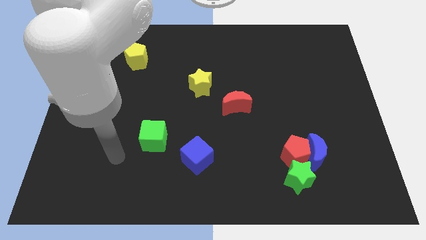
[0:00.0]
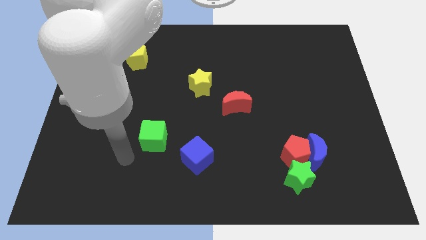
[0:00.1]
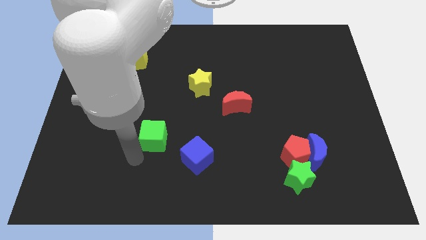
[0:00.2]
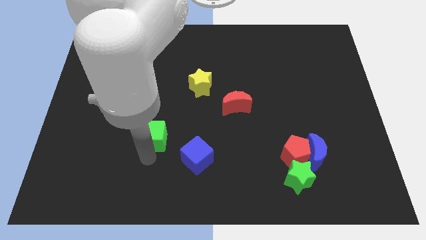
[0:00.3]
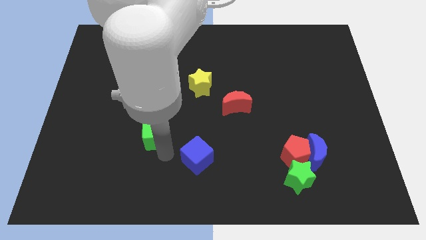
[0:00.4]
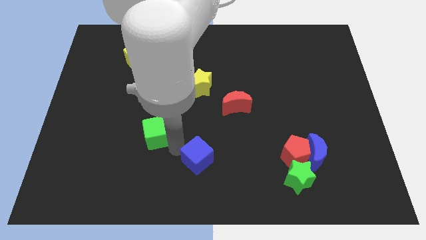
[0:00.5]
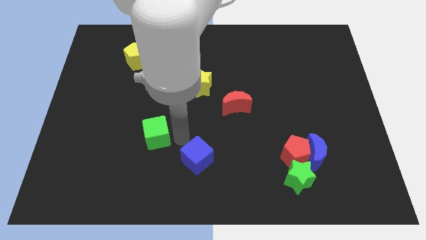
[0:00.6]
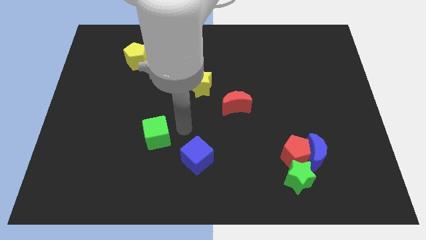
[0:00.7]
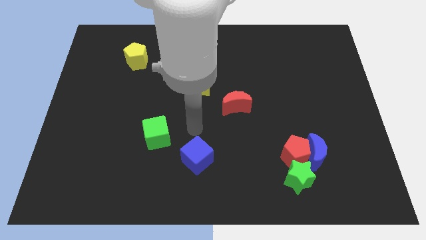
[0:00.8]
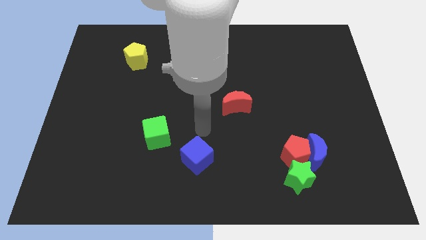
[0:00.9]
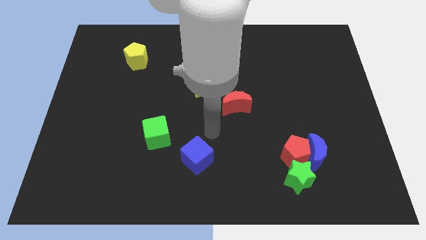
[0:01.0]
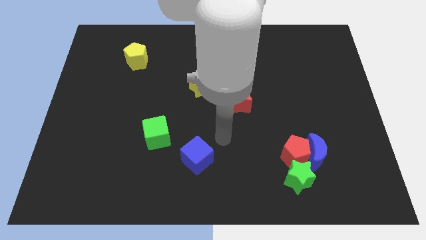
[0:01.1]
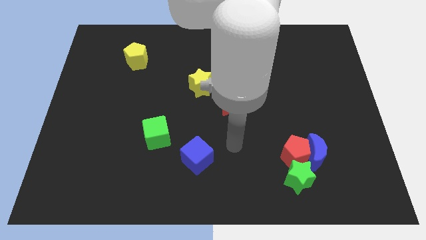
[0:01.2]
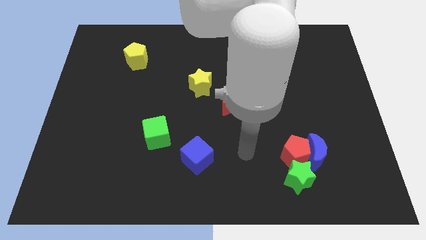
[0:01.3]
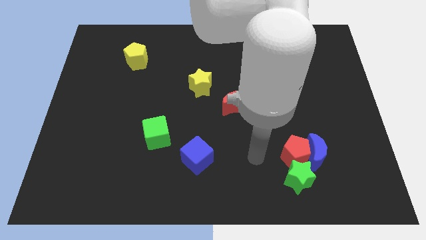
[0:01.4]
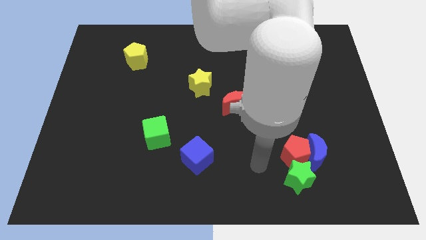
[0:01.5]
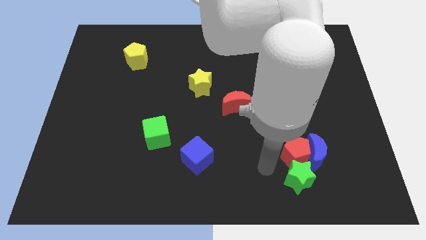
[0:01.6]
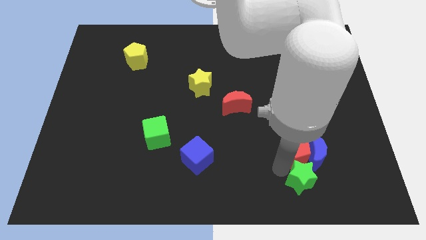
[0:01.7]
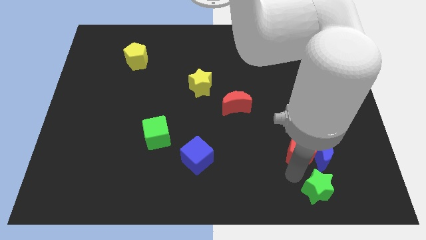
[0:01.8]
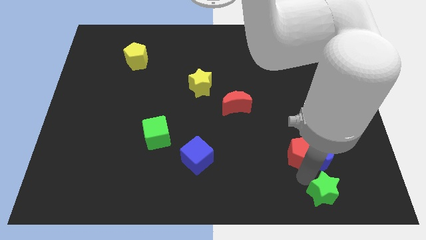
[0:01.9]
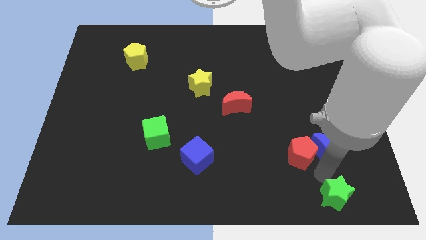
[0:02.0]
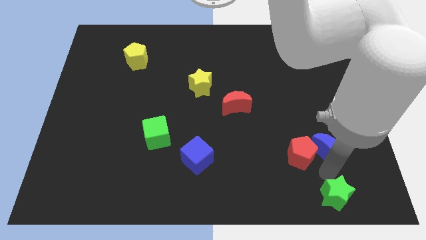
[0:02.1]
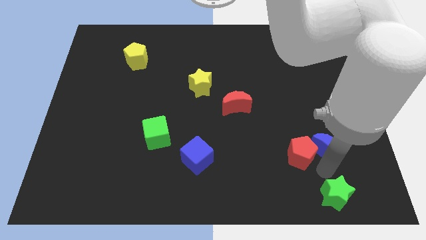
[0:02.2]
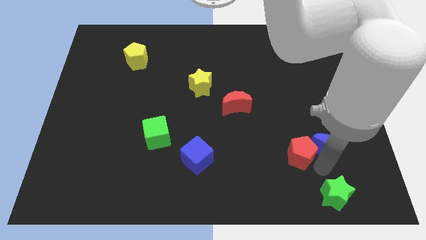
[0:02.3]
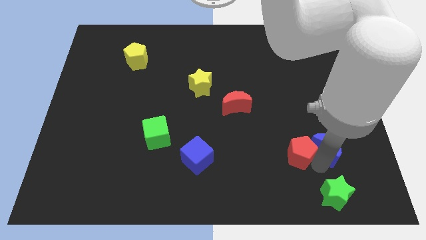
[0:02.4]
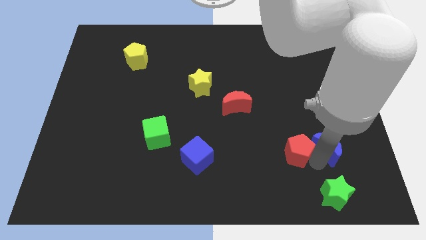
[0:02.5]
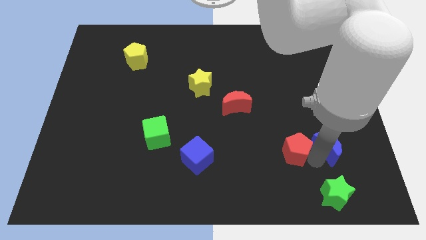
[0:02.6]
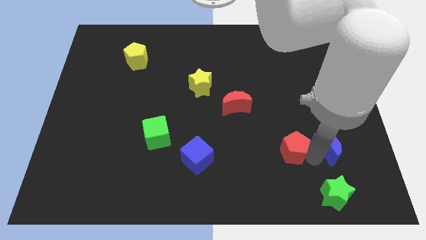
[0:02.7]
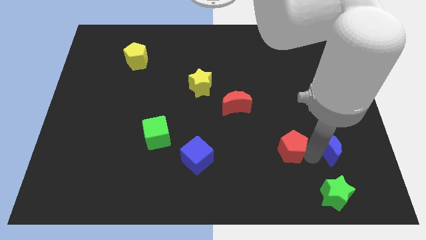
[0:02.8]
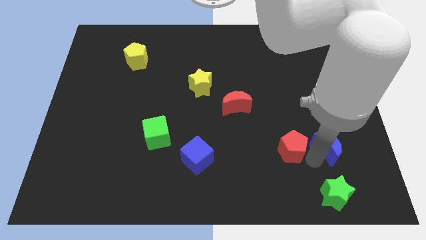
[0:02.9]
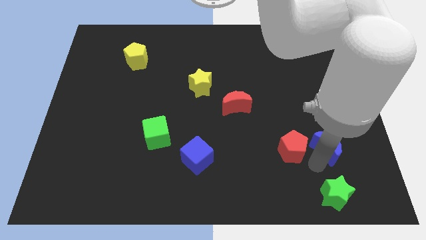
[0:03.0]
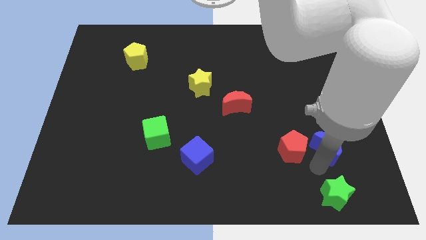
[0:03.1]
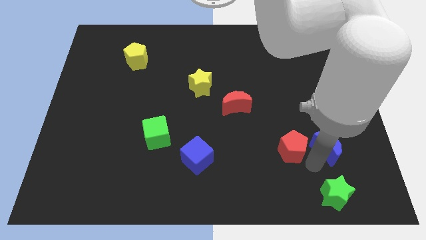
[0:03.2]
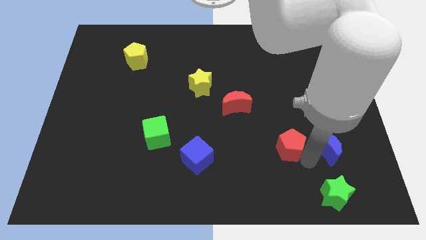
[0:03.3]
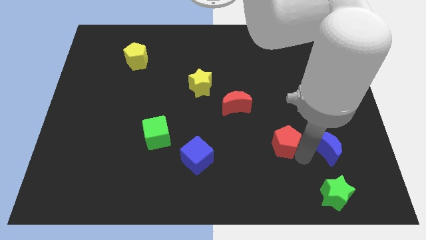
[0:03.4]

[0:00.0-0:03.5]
move the red pentagon away from the blue moon and green star

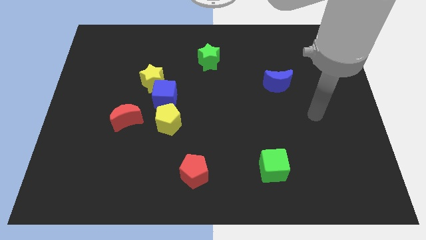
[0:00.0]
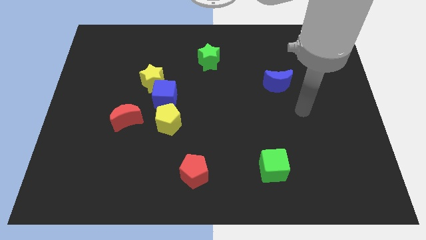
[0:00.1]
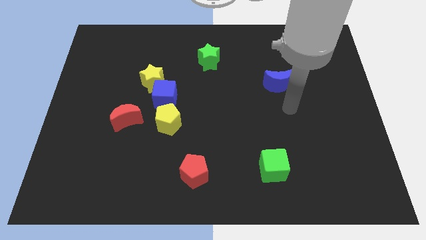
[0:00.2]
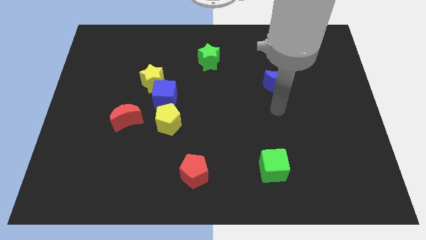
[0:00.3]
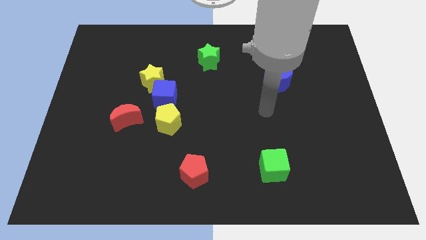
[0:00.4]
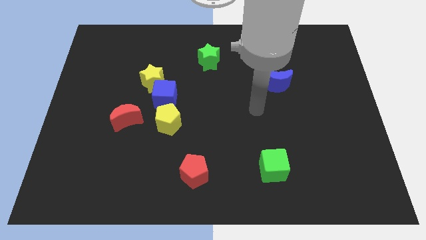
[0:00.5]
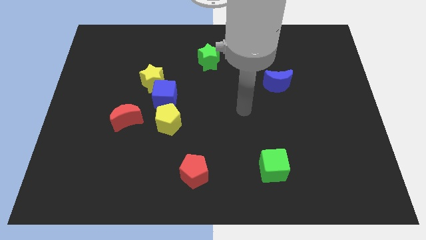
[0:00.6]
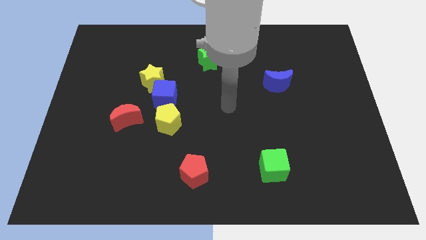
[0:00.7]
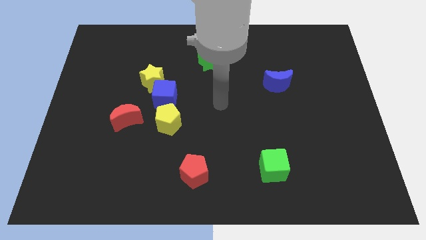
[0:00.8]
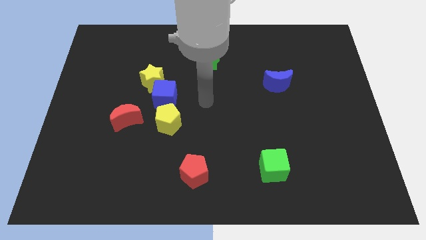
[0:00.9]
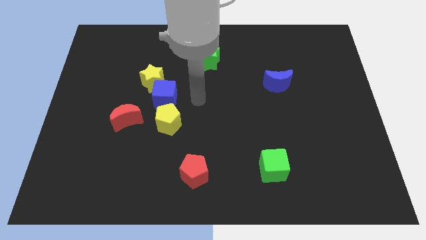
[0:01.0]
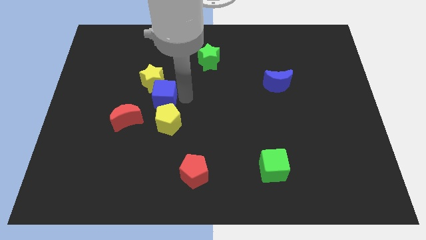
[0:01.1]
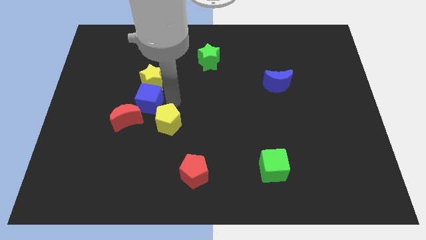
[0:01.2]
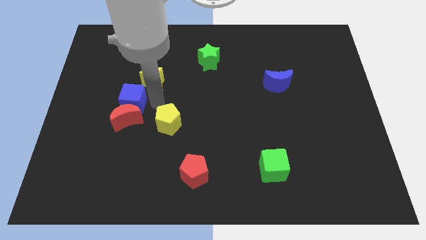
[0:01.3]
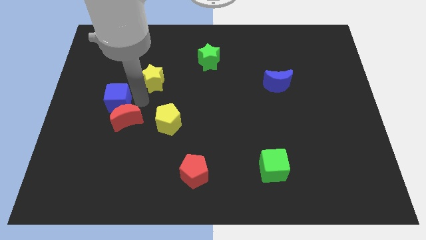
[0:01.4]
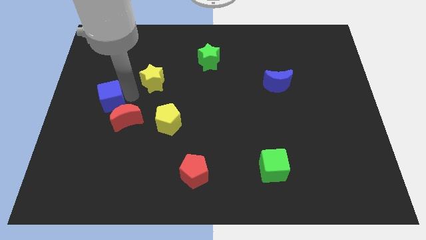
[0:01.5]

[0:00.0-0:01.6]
separate the yellow star from the blue cube

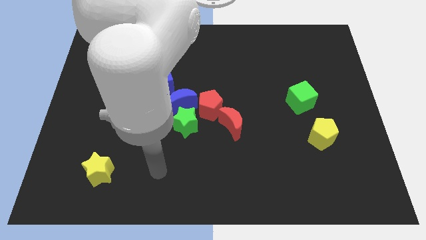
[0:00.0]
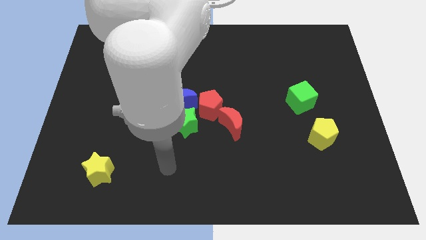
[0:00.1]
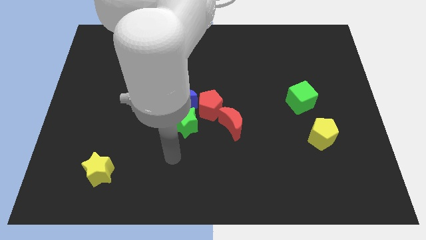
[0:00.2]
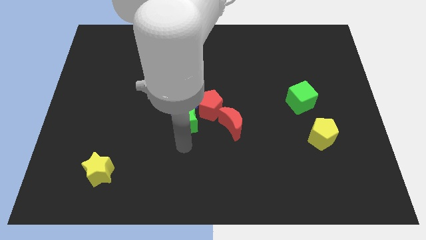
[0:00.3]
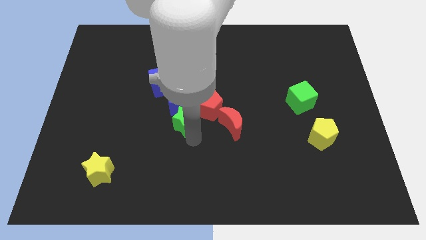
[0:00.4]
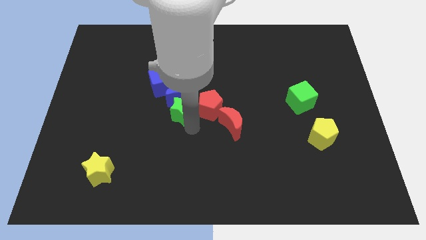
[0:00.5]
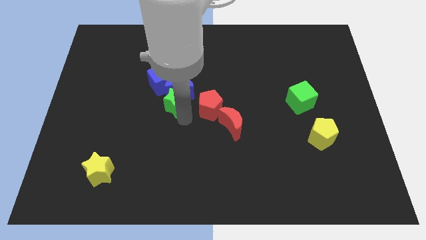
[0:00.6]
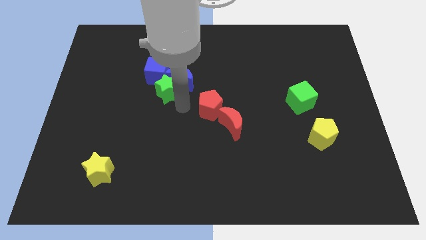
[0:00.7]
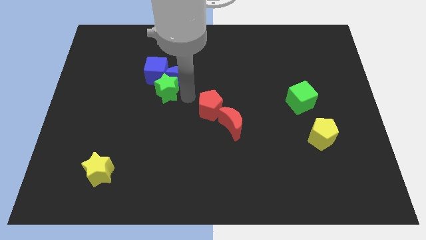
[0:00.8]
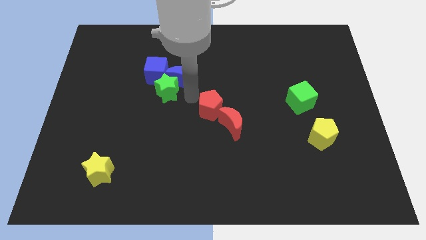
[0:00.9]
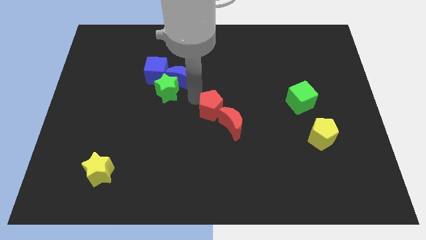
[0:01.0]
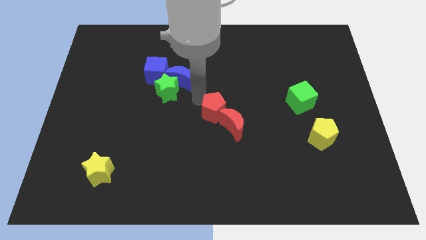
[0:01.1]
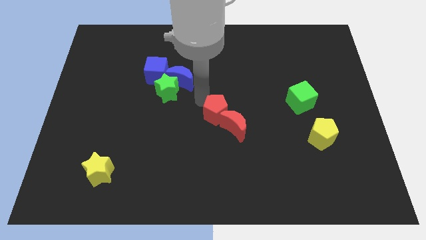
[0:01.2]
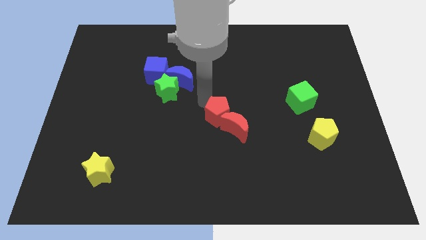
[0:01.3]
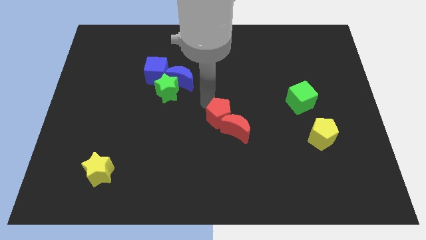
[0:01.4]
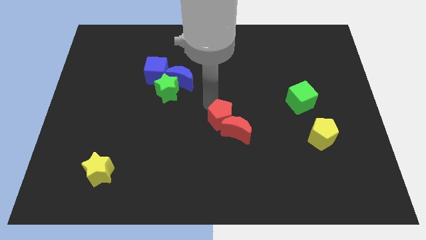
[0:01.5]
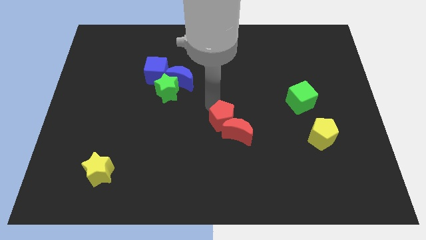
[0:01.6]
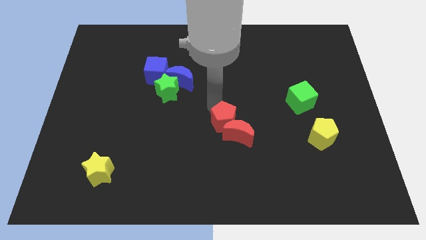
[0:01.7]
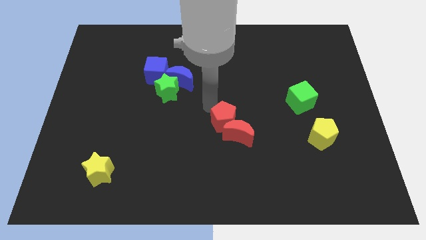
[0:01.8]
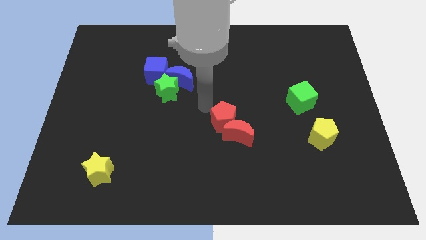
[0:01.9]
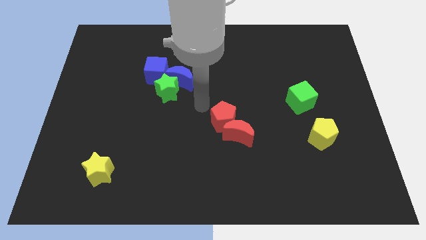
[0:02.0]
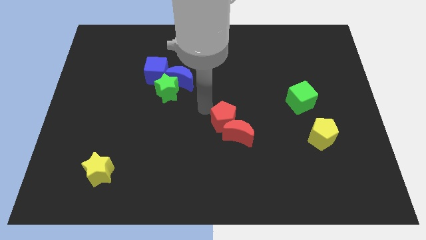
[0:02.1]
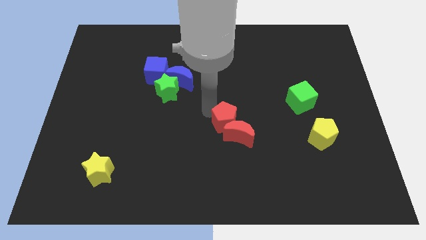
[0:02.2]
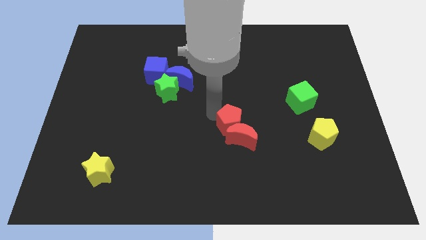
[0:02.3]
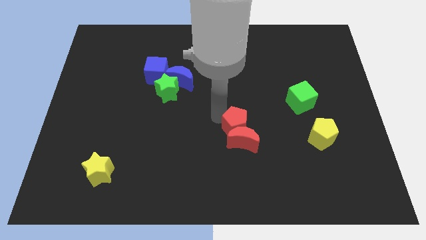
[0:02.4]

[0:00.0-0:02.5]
move the red pentagon away from the blue moon, green star, and red moon

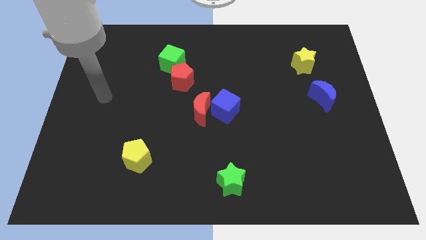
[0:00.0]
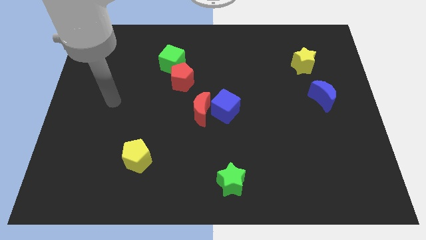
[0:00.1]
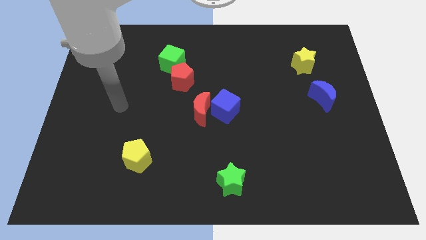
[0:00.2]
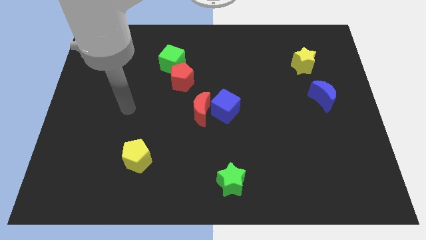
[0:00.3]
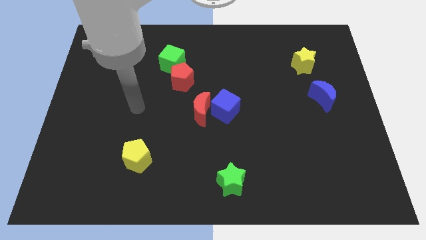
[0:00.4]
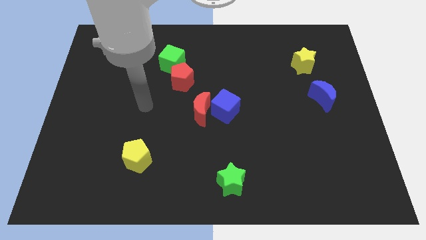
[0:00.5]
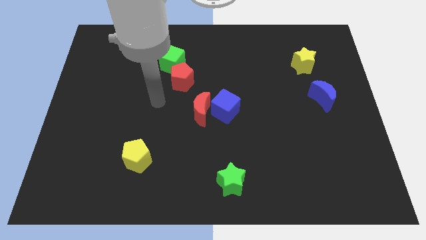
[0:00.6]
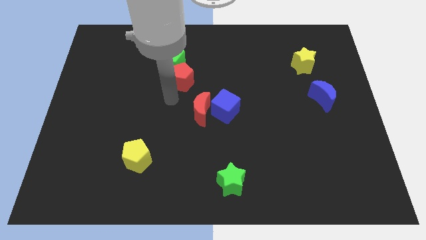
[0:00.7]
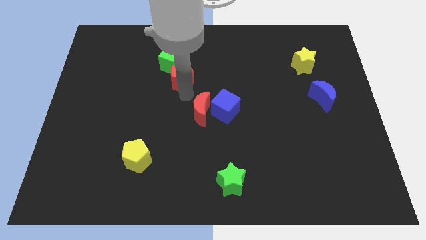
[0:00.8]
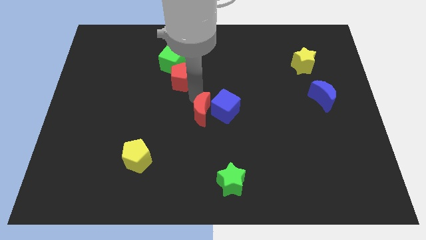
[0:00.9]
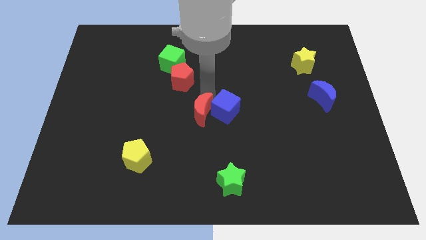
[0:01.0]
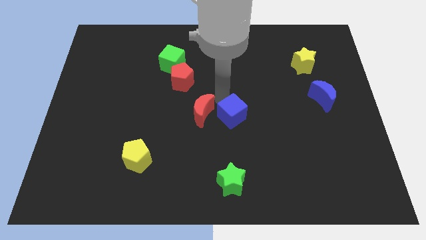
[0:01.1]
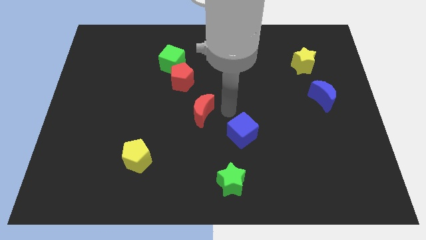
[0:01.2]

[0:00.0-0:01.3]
move the red moon away from the blue cube

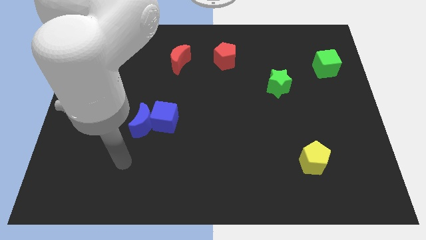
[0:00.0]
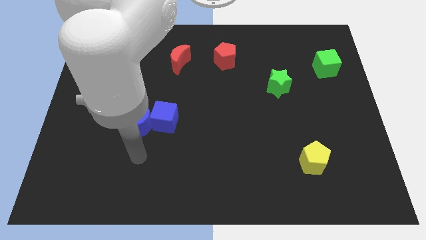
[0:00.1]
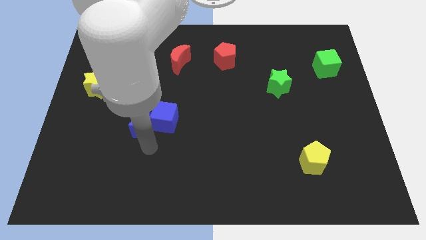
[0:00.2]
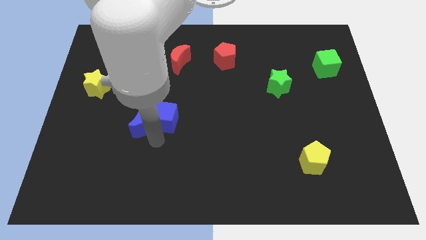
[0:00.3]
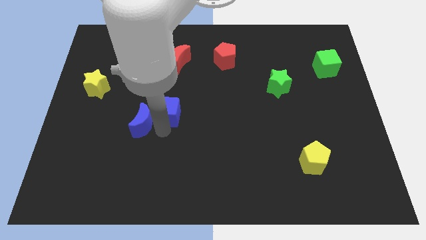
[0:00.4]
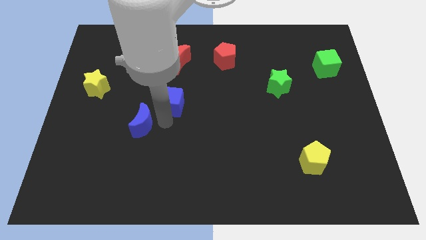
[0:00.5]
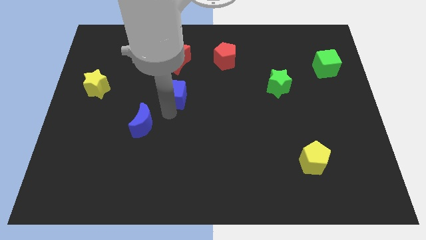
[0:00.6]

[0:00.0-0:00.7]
move the blue moon away from the blue cube
